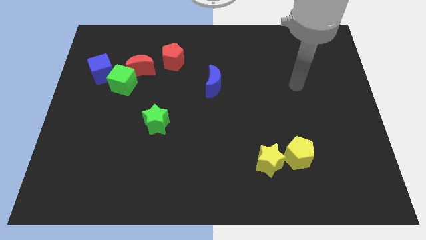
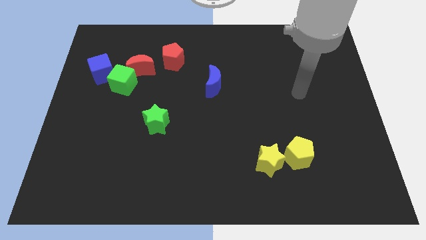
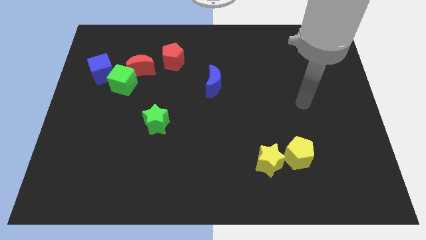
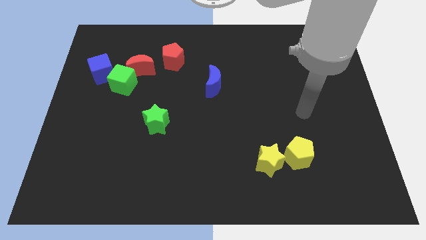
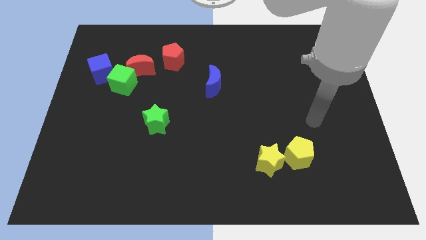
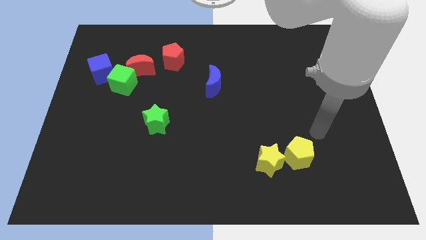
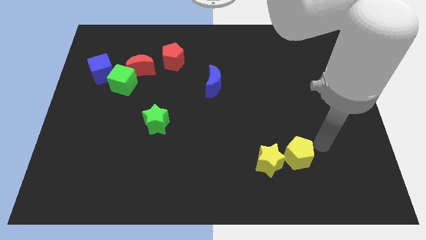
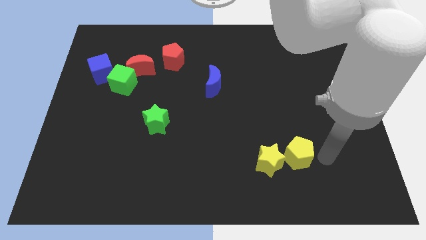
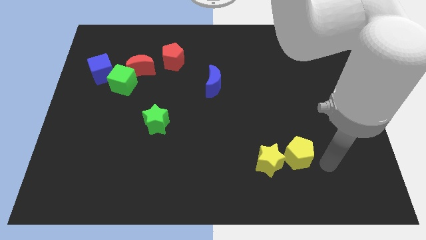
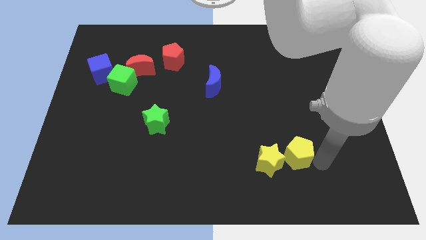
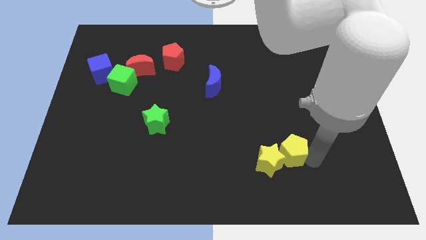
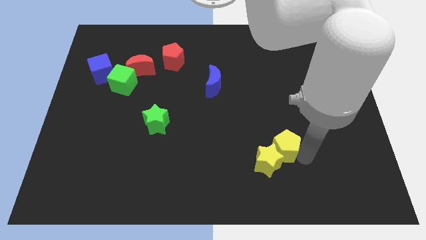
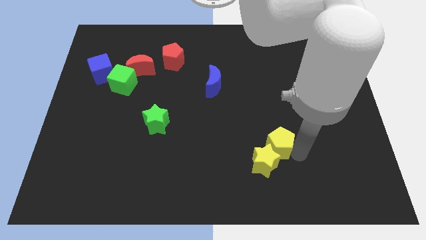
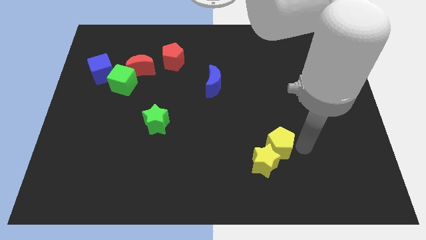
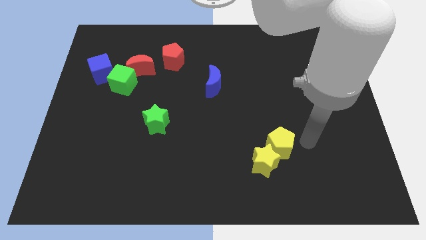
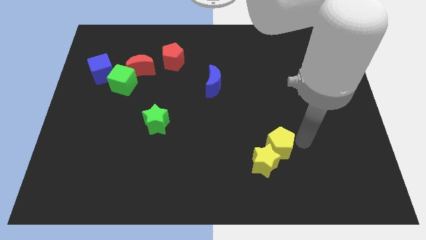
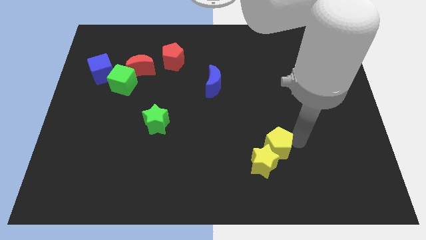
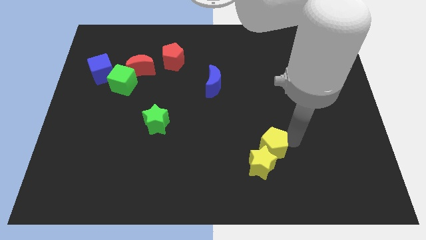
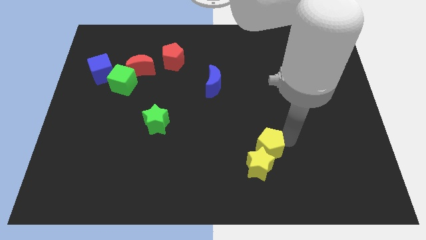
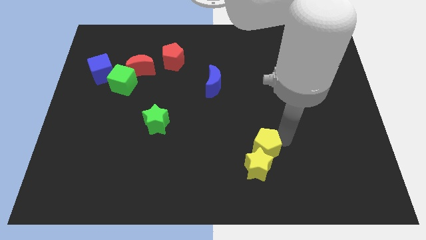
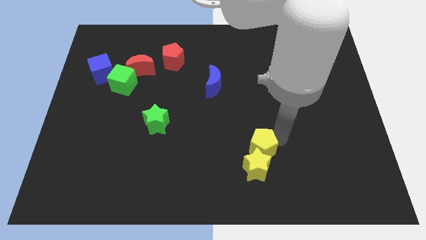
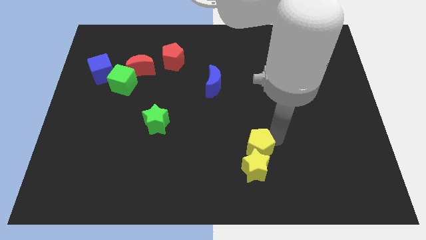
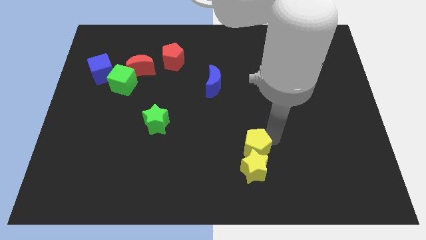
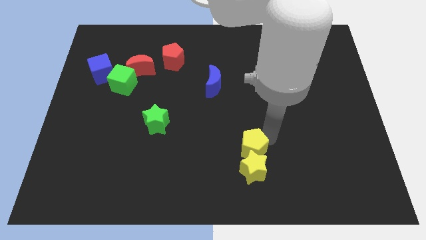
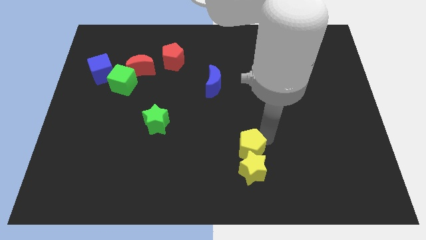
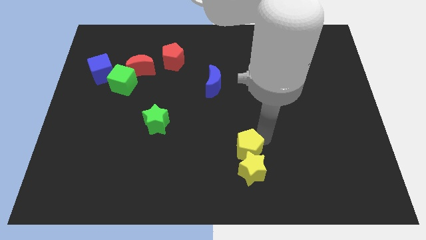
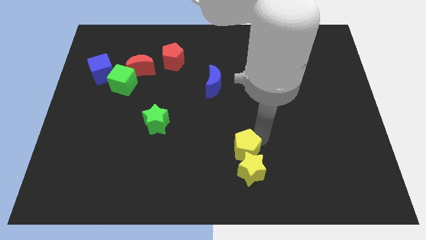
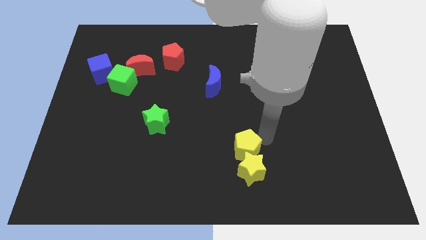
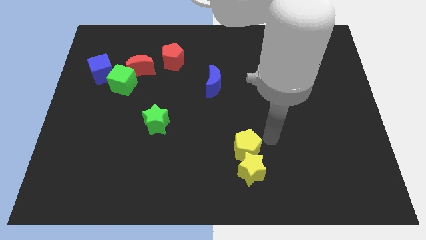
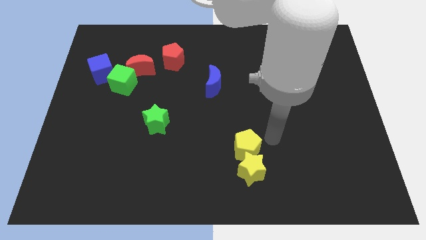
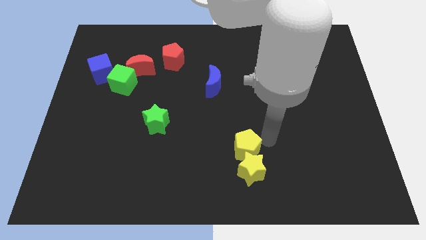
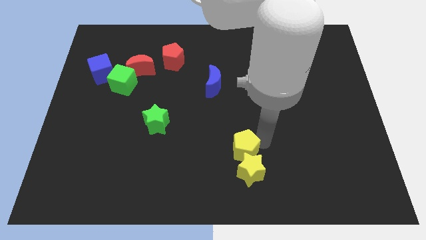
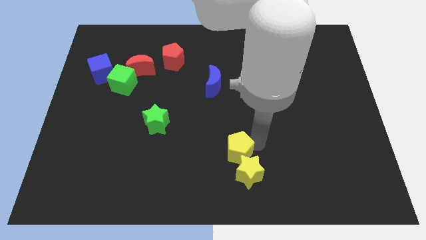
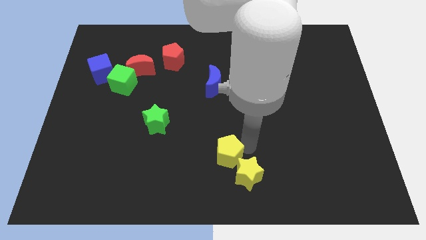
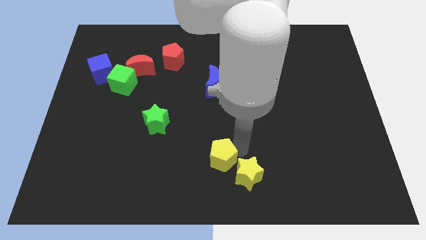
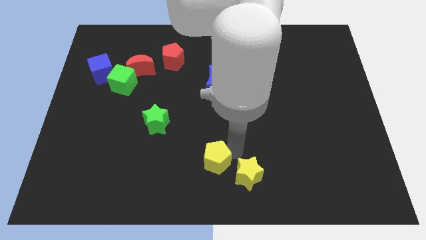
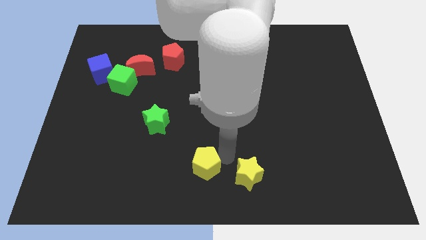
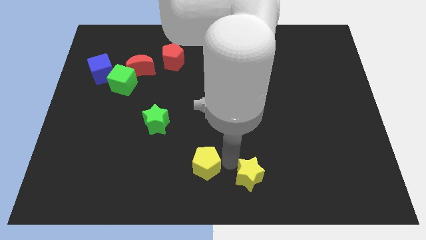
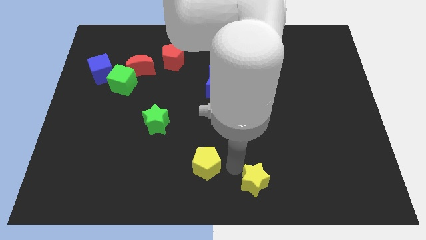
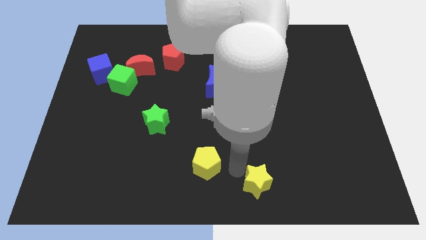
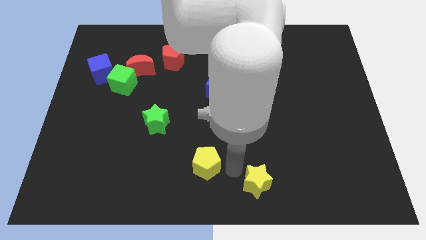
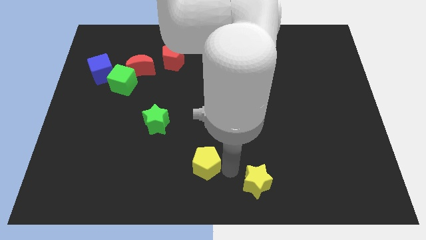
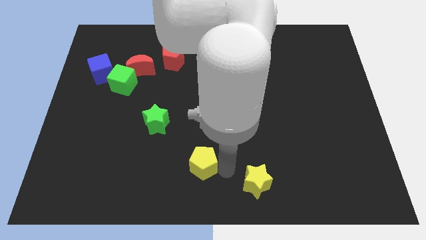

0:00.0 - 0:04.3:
push the yellow pentagon to the left

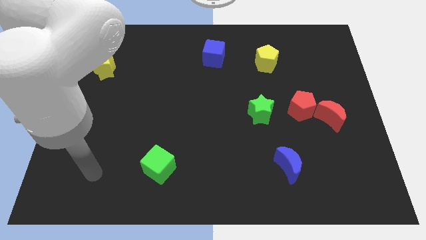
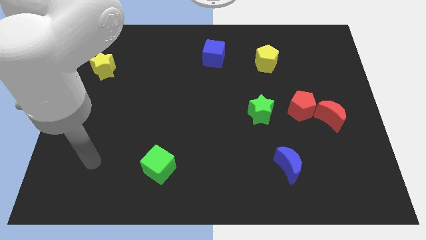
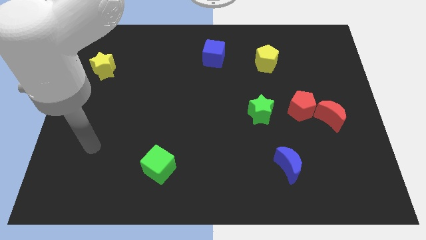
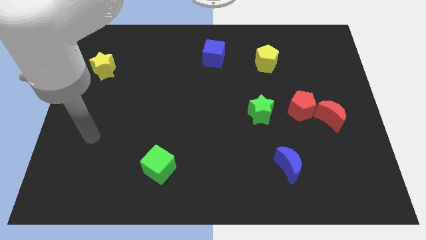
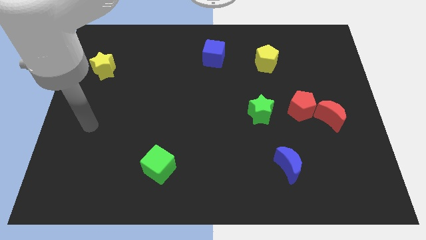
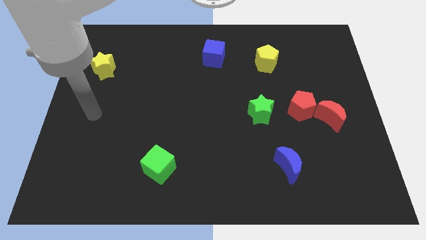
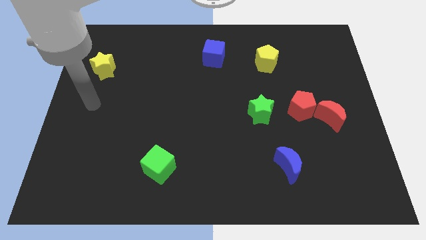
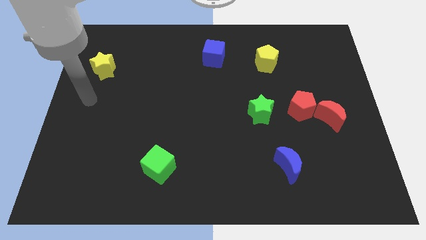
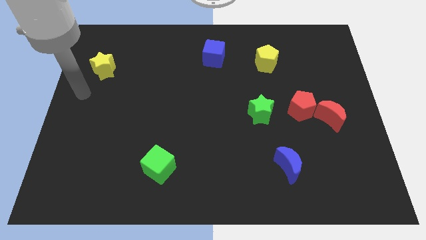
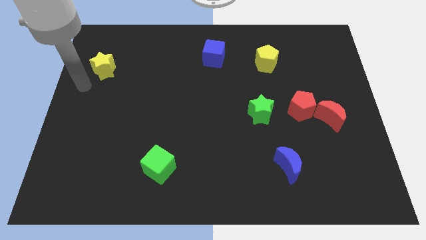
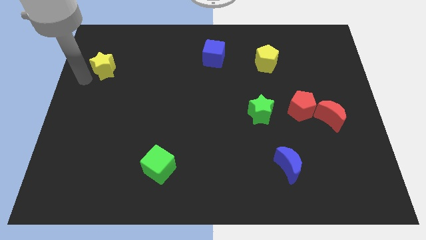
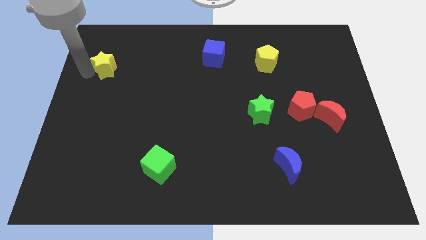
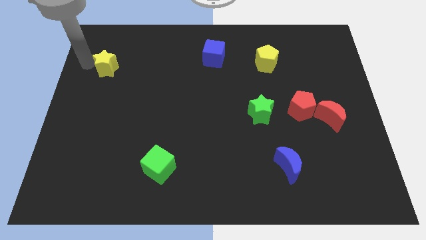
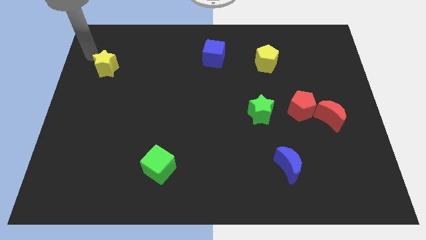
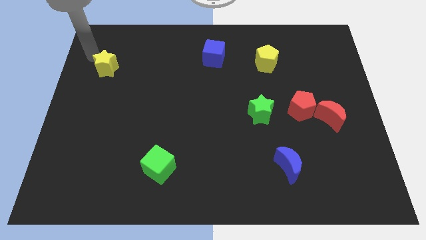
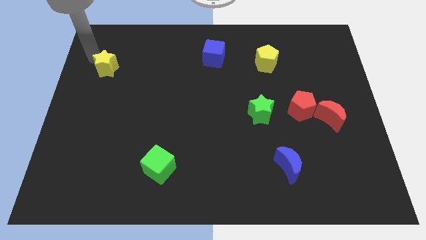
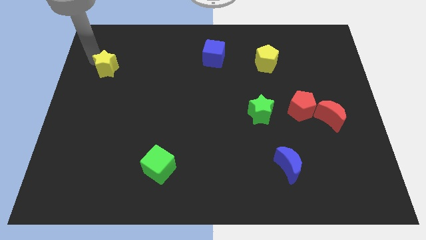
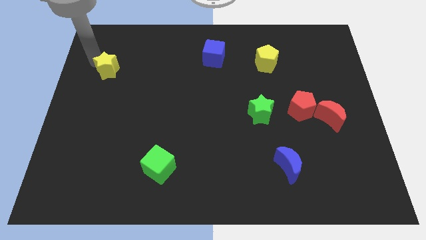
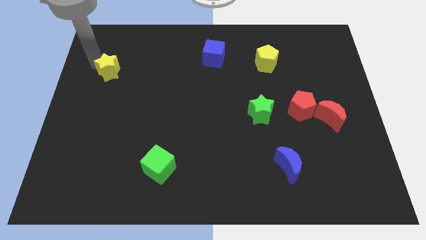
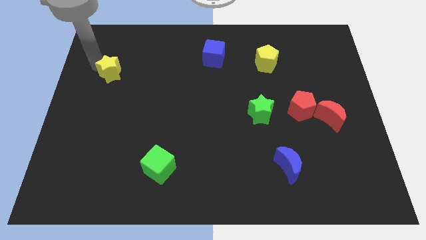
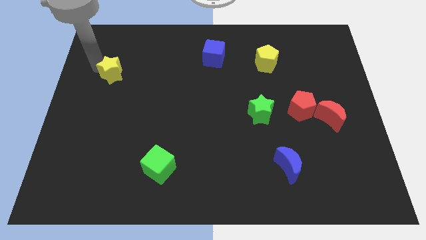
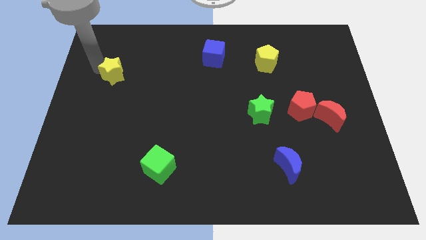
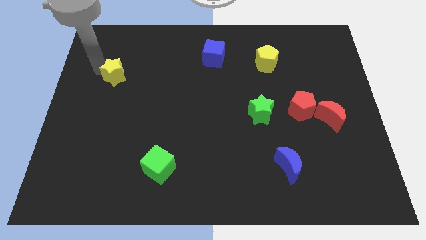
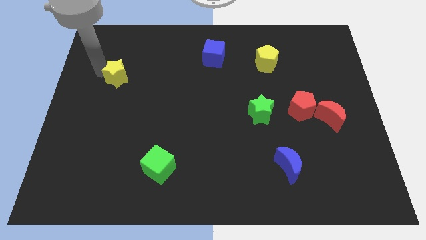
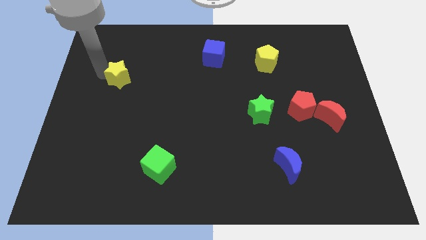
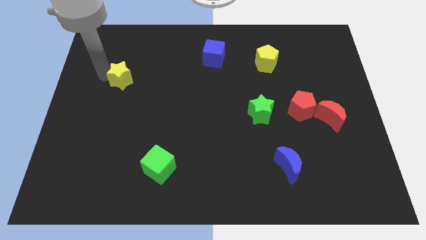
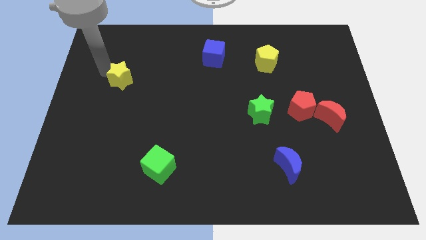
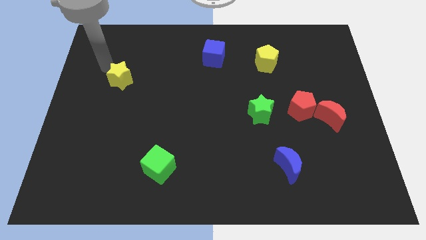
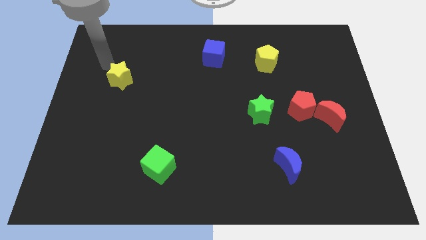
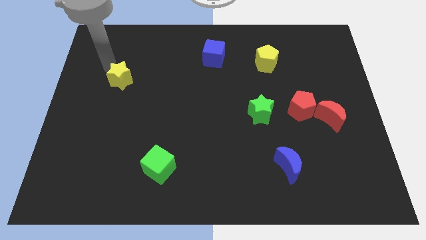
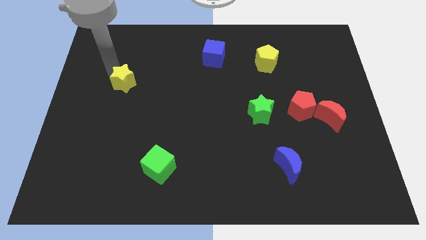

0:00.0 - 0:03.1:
push the yellow star a little bit down and to the right

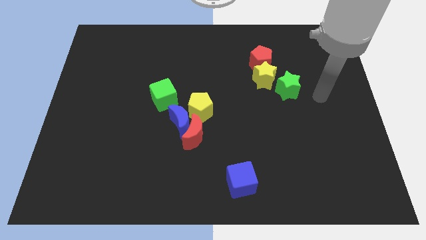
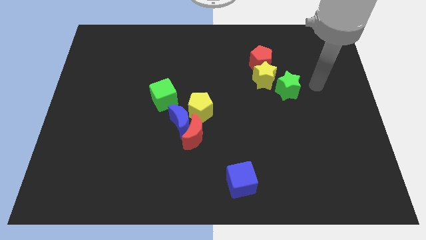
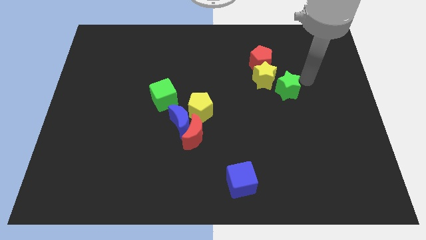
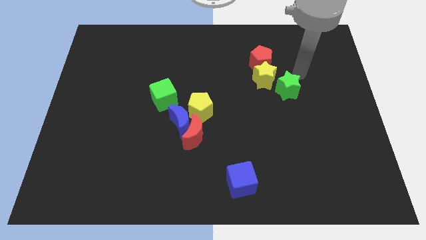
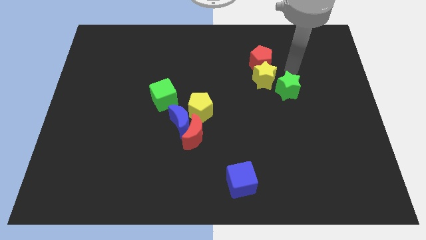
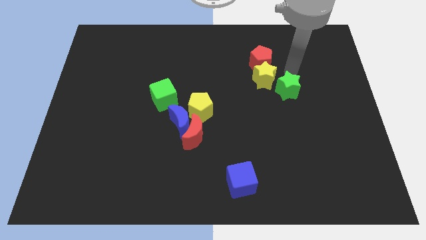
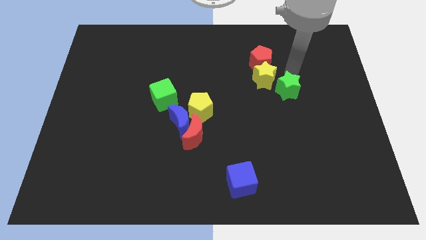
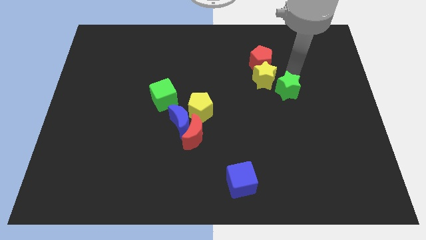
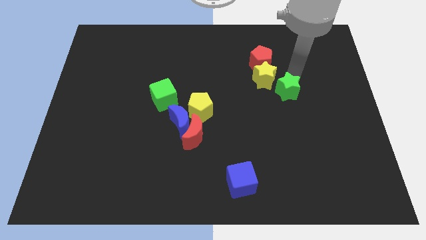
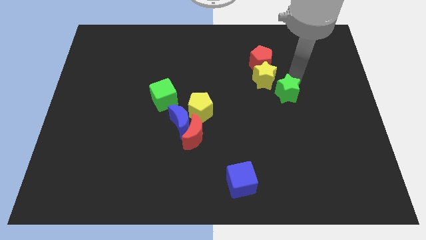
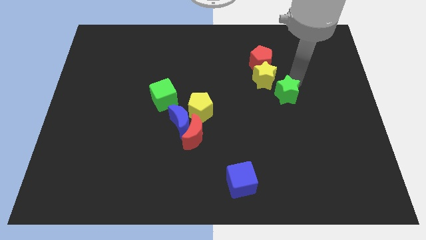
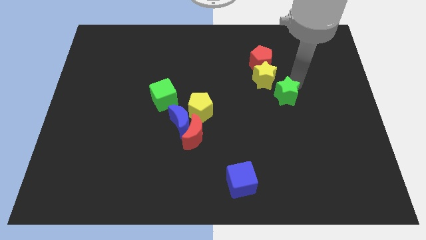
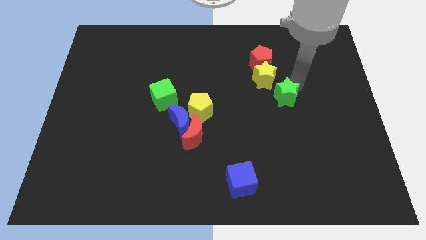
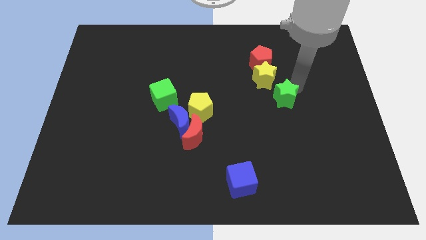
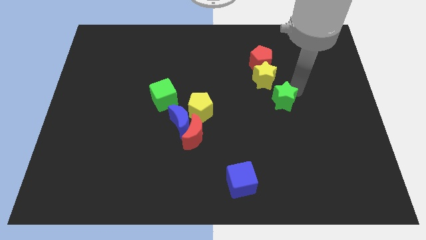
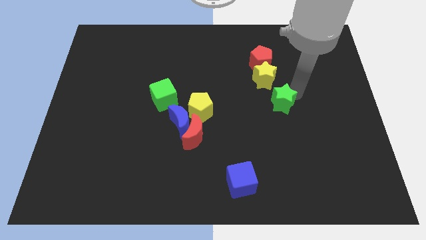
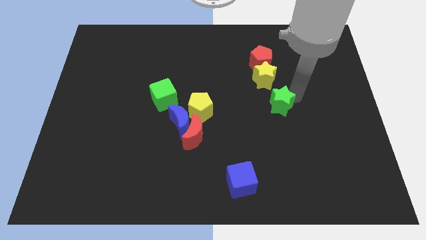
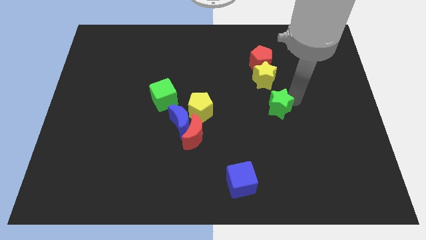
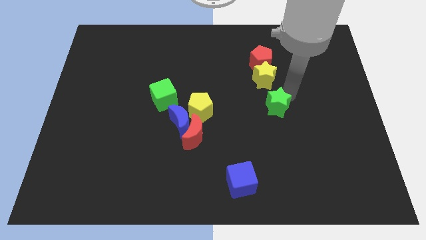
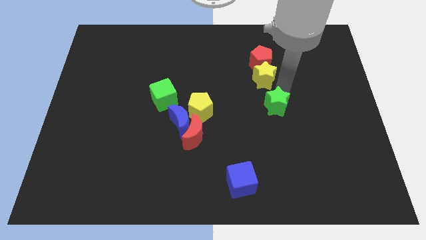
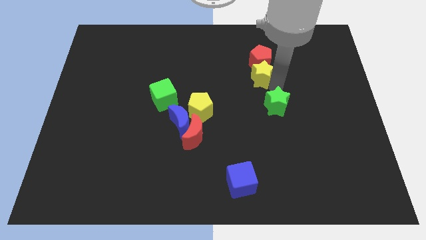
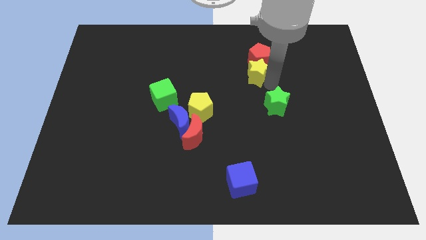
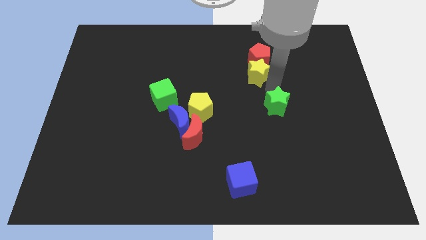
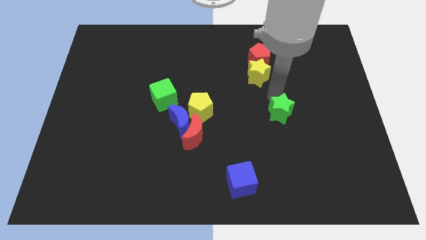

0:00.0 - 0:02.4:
move the green star down a little bit
